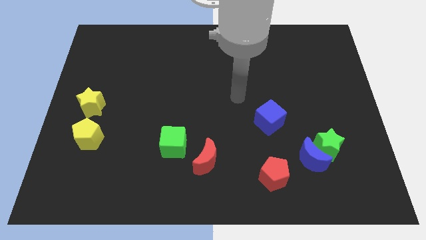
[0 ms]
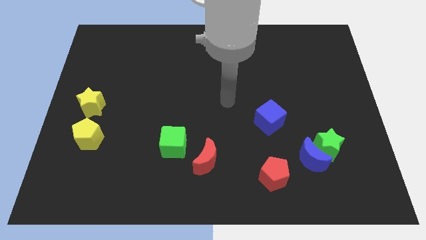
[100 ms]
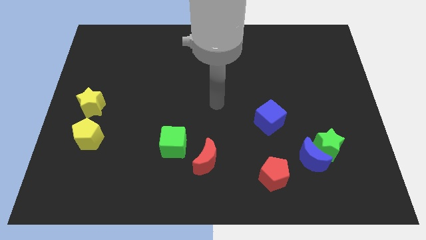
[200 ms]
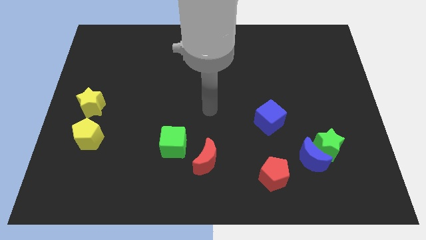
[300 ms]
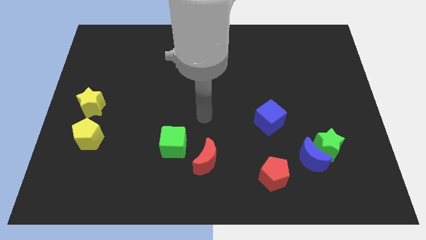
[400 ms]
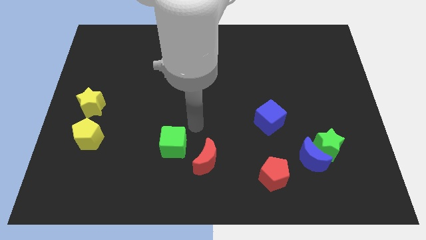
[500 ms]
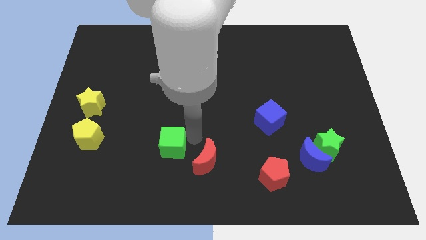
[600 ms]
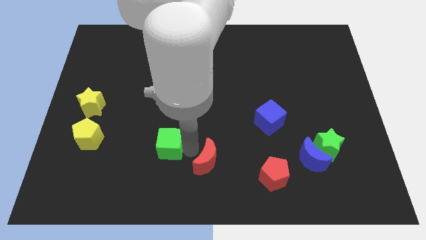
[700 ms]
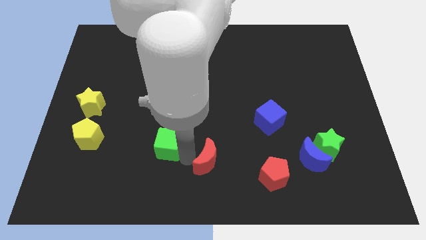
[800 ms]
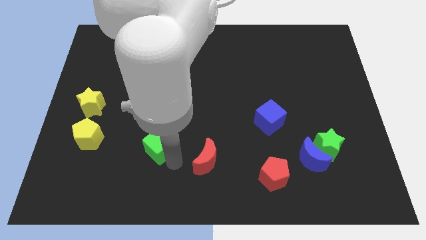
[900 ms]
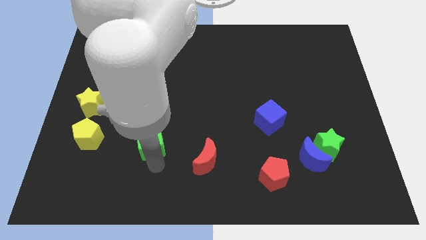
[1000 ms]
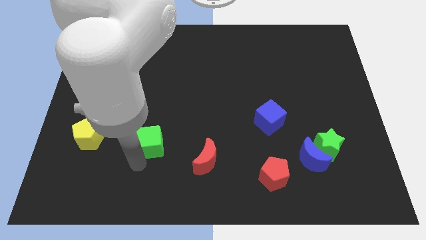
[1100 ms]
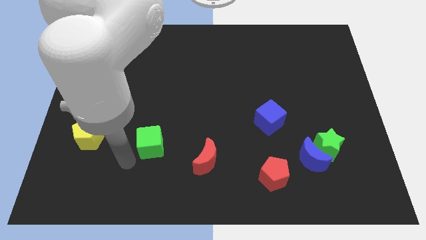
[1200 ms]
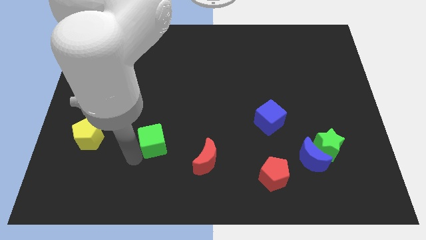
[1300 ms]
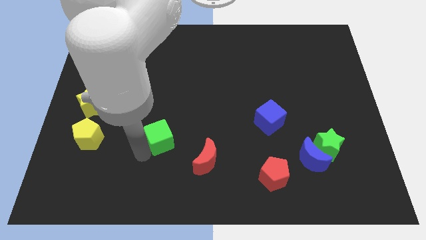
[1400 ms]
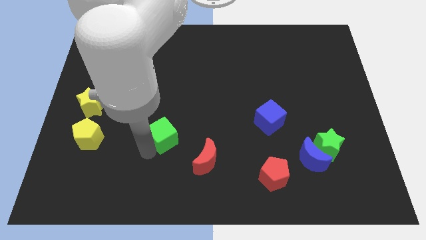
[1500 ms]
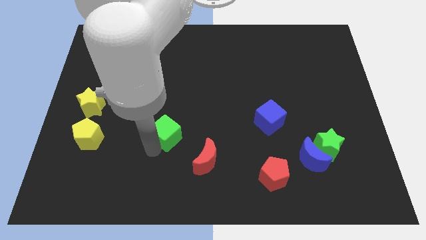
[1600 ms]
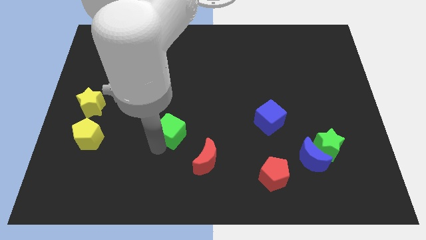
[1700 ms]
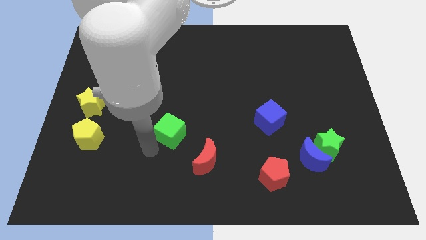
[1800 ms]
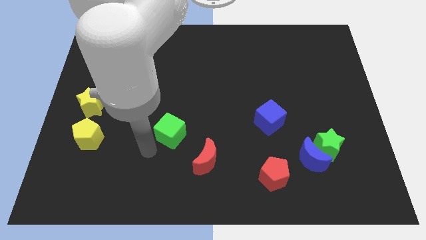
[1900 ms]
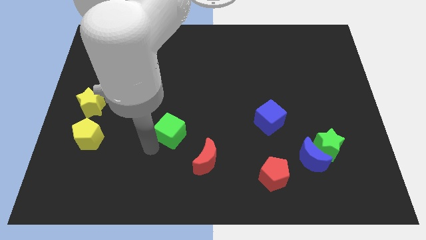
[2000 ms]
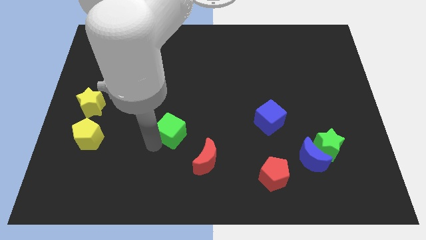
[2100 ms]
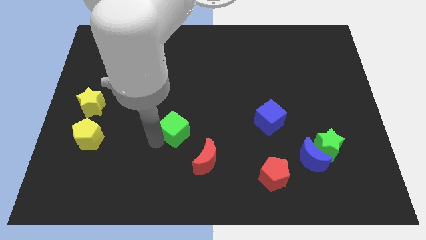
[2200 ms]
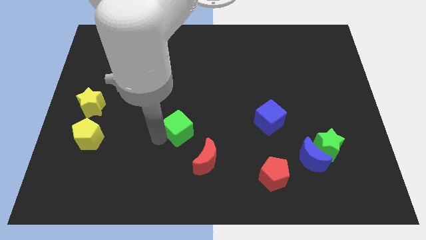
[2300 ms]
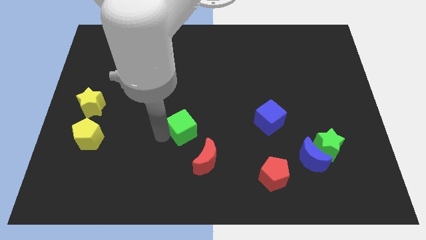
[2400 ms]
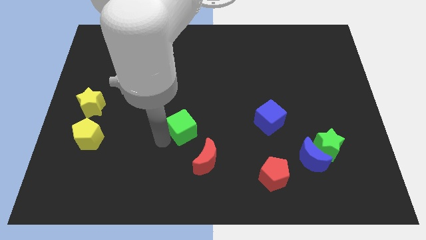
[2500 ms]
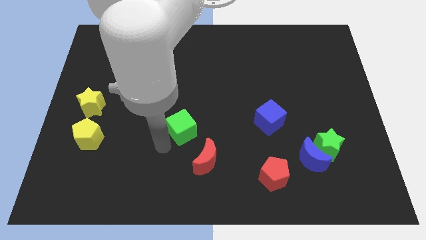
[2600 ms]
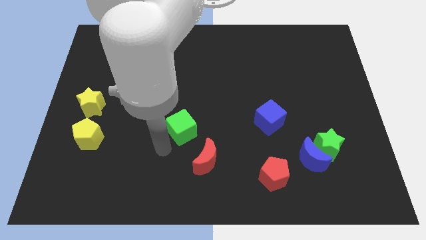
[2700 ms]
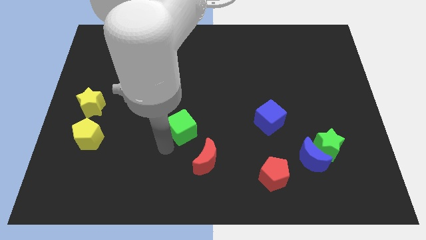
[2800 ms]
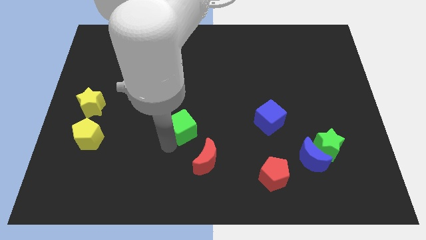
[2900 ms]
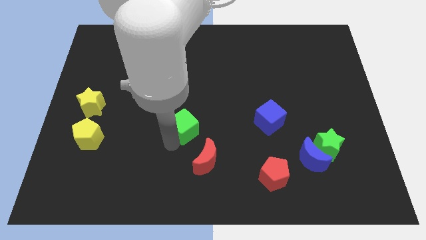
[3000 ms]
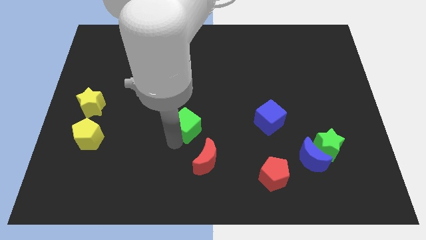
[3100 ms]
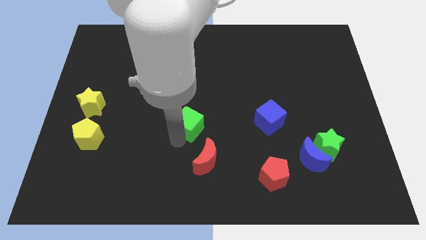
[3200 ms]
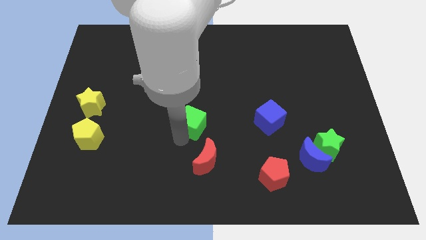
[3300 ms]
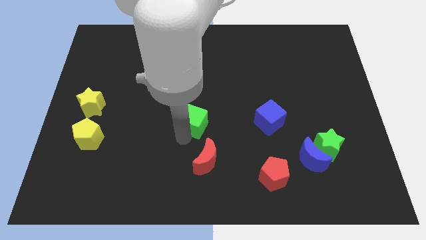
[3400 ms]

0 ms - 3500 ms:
slightly push the green cube up and to the right

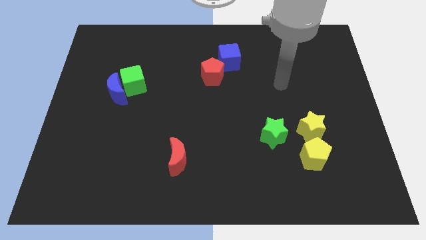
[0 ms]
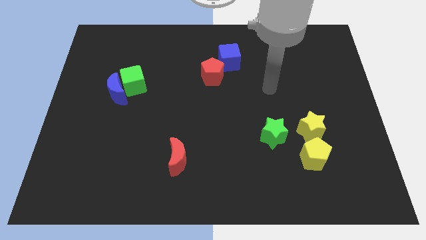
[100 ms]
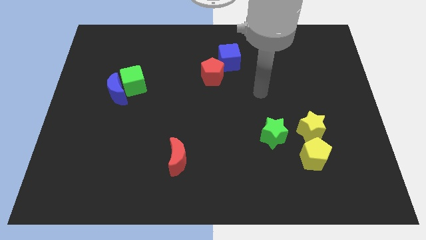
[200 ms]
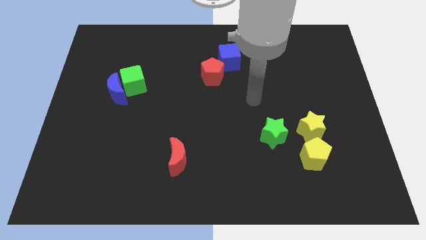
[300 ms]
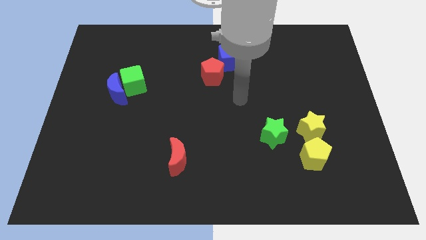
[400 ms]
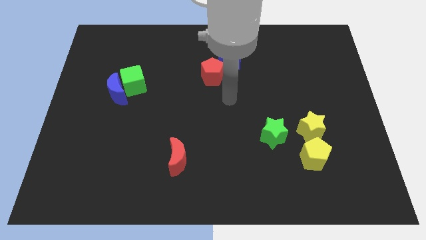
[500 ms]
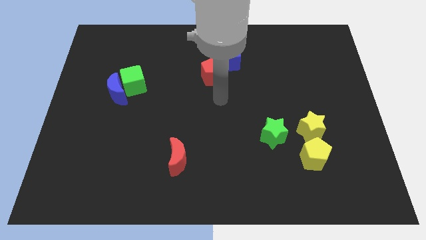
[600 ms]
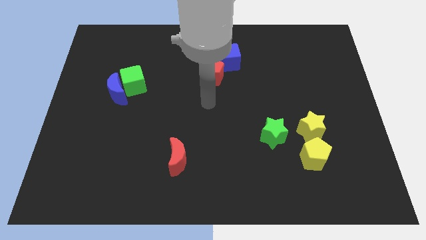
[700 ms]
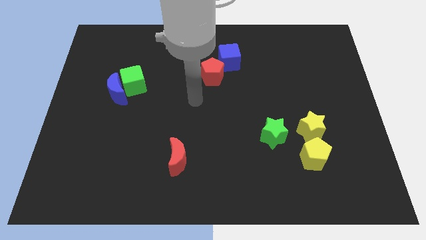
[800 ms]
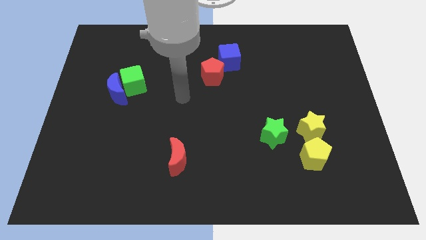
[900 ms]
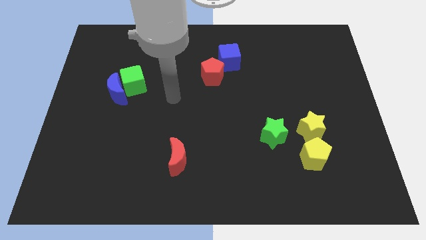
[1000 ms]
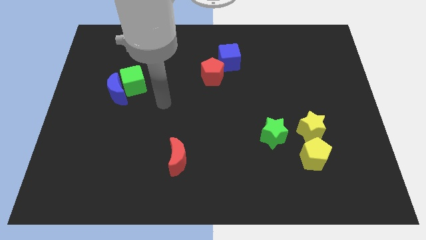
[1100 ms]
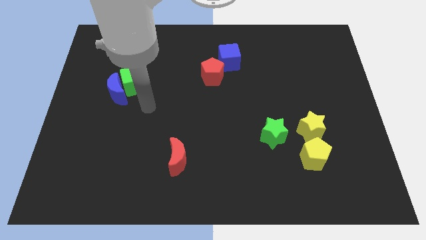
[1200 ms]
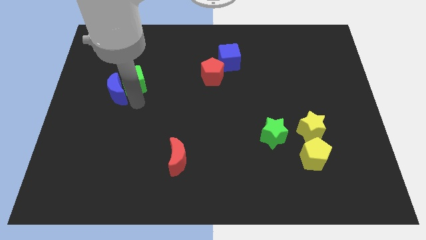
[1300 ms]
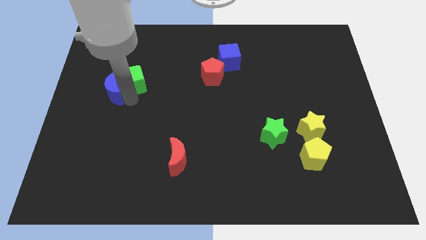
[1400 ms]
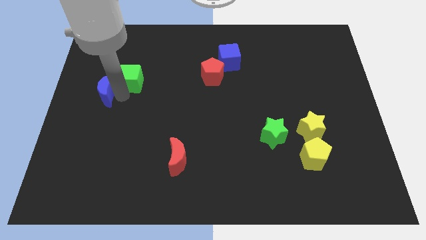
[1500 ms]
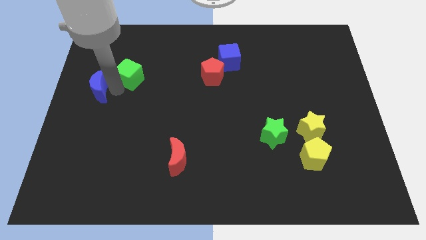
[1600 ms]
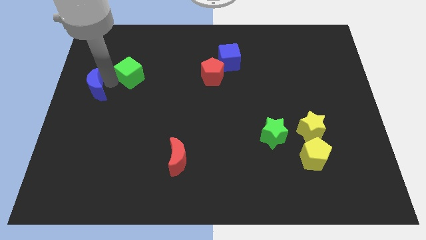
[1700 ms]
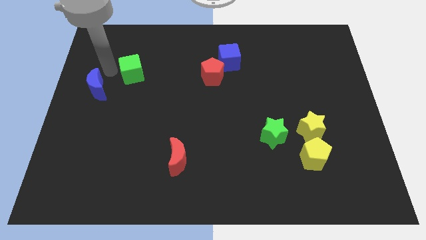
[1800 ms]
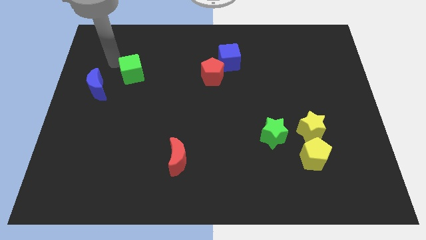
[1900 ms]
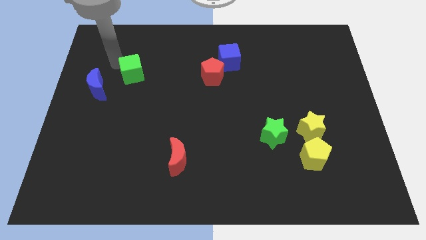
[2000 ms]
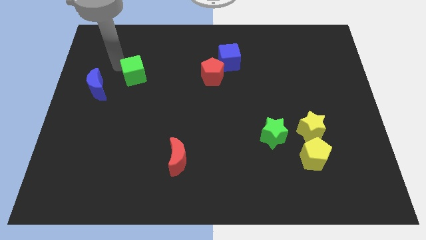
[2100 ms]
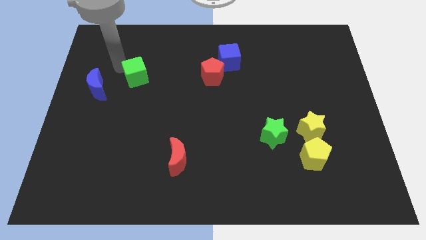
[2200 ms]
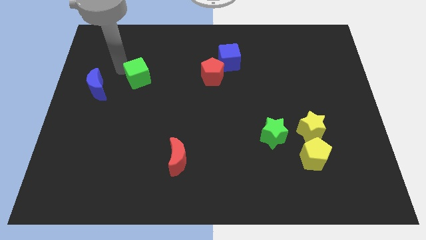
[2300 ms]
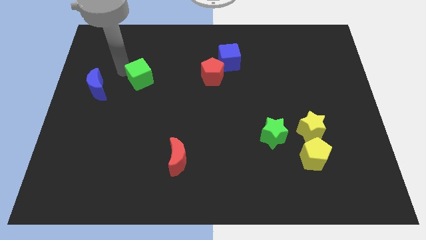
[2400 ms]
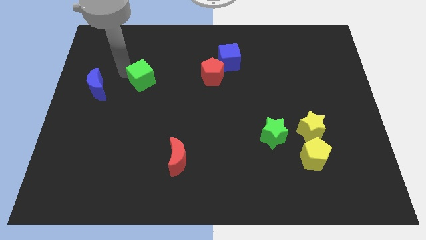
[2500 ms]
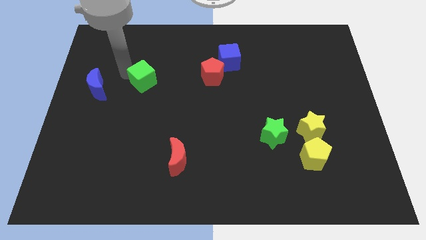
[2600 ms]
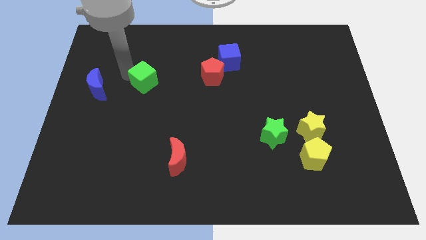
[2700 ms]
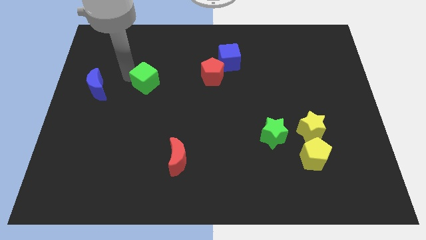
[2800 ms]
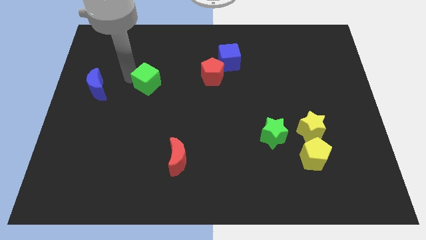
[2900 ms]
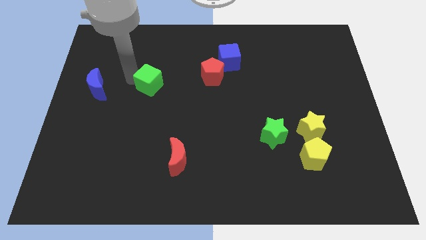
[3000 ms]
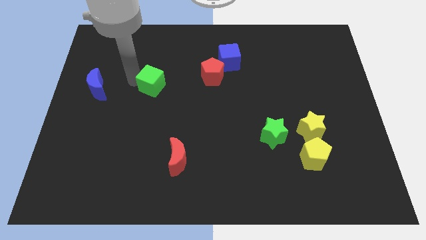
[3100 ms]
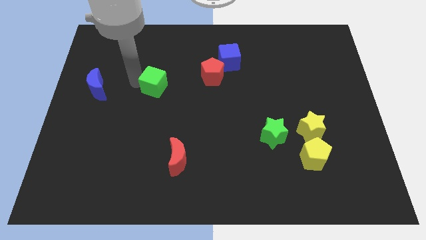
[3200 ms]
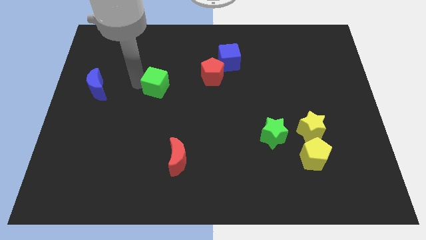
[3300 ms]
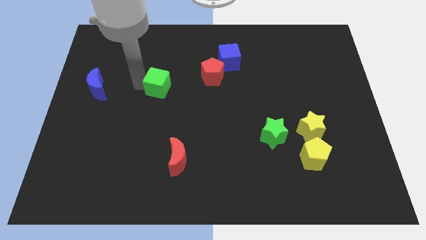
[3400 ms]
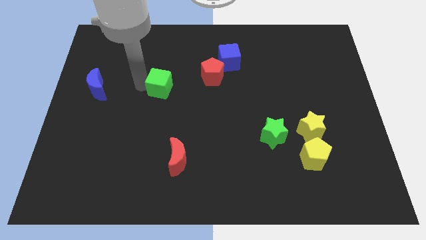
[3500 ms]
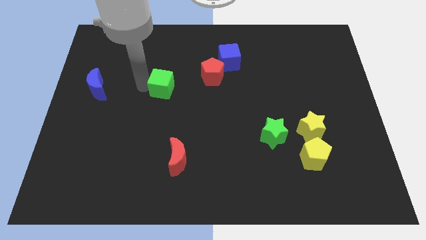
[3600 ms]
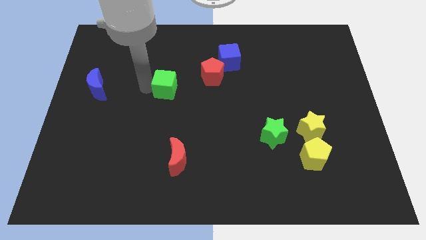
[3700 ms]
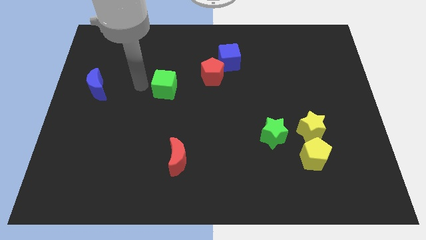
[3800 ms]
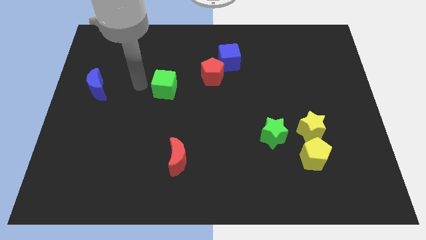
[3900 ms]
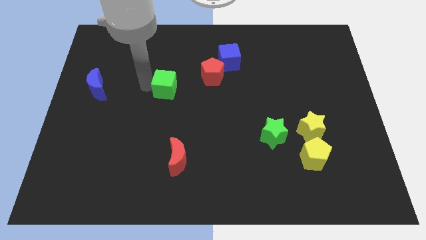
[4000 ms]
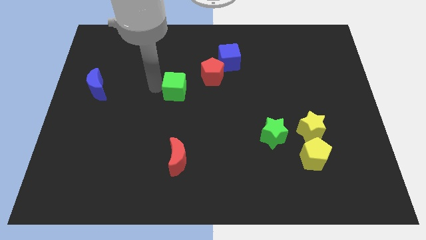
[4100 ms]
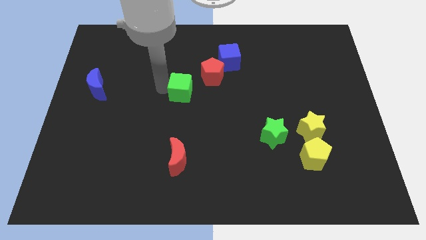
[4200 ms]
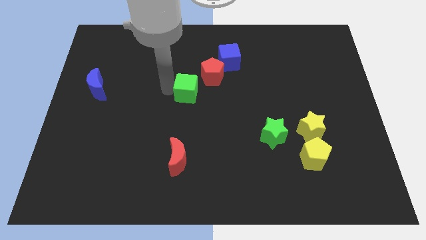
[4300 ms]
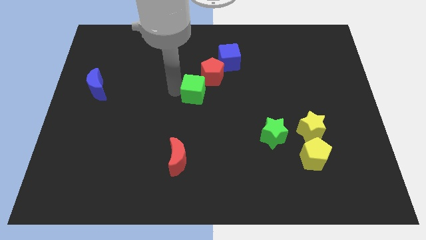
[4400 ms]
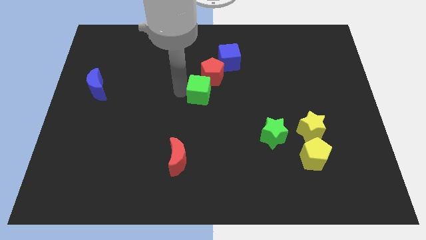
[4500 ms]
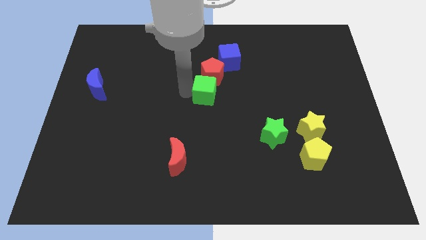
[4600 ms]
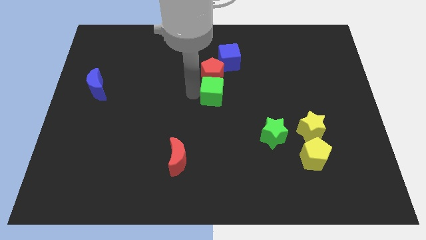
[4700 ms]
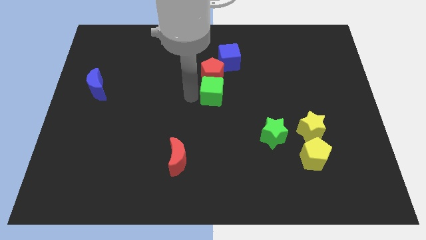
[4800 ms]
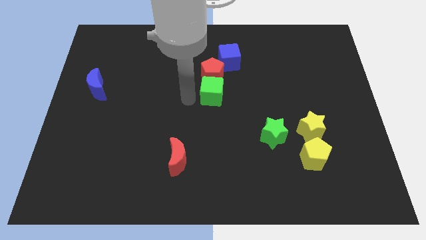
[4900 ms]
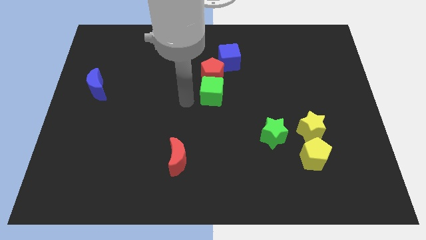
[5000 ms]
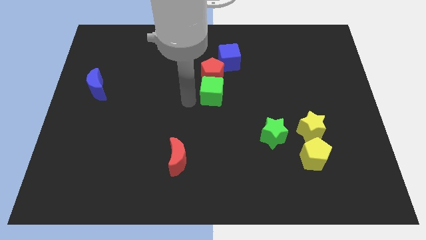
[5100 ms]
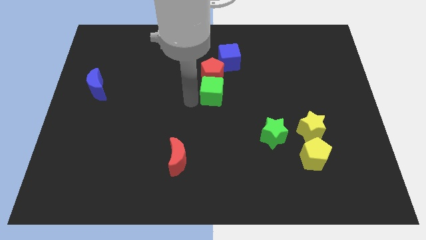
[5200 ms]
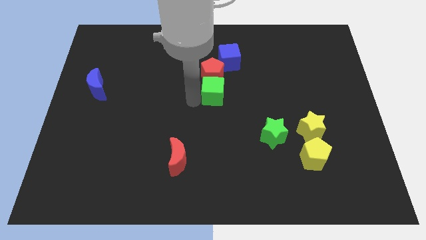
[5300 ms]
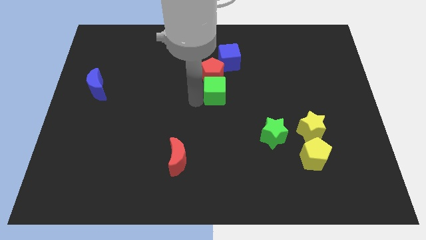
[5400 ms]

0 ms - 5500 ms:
move the green cube to the right
